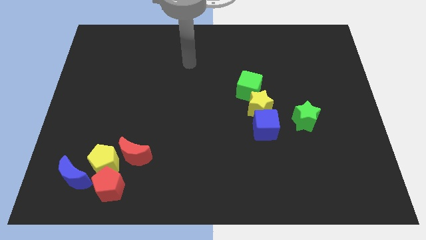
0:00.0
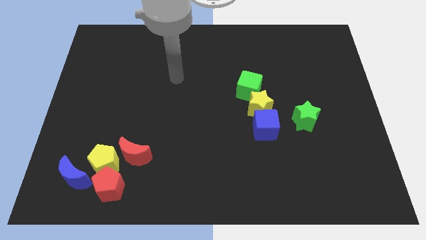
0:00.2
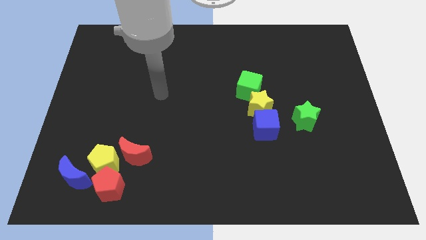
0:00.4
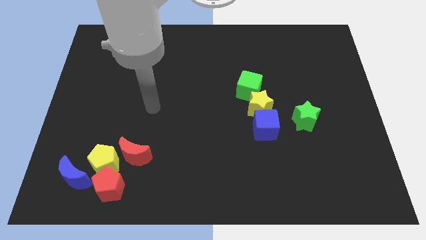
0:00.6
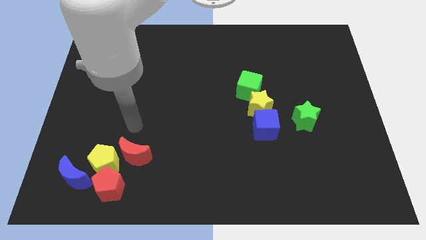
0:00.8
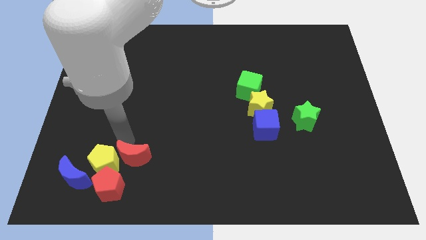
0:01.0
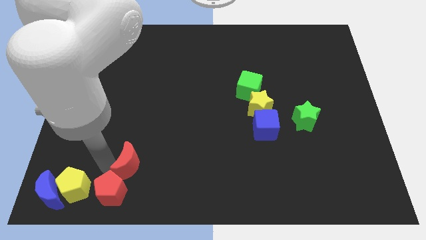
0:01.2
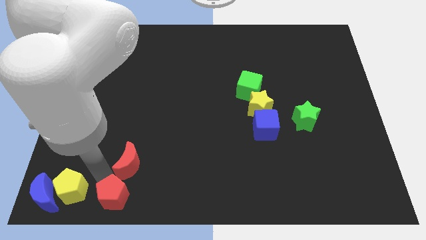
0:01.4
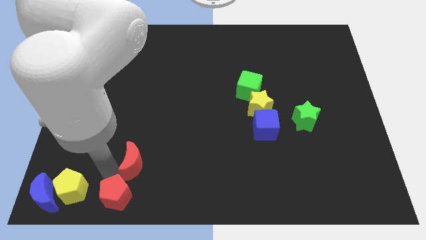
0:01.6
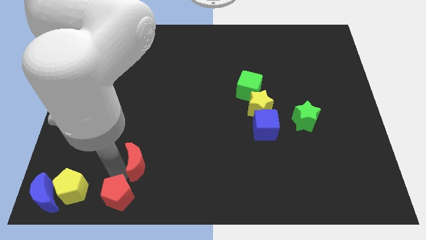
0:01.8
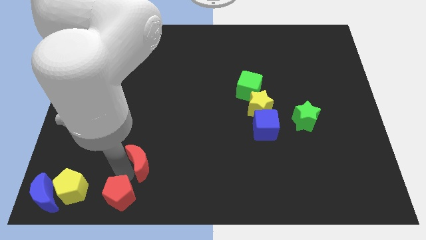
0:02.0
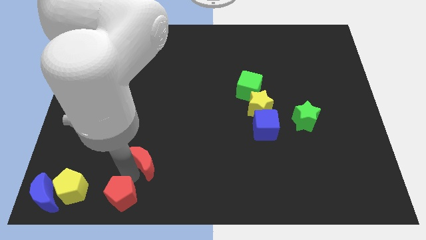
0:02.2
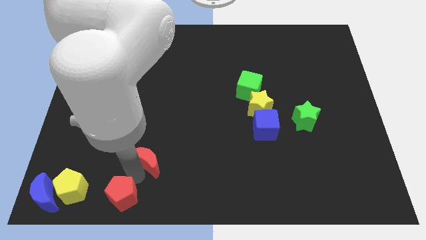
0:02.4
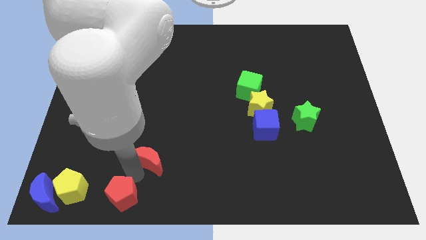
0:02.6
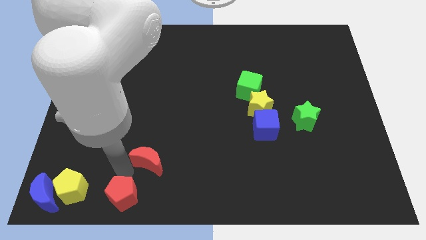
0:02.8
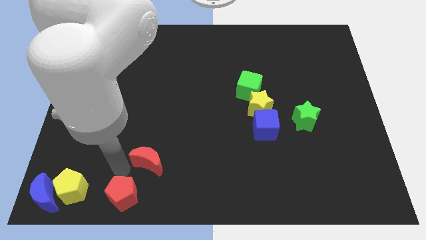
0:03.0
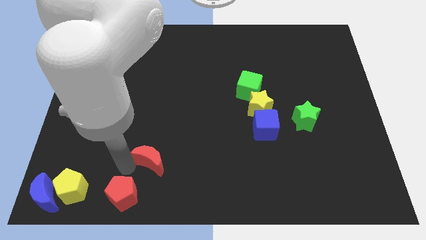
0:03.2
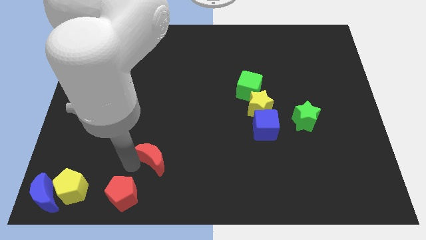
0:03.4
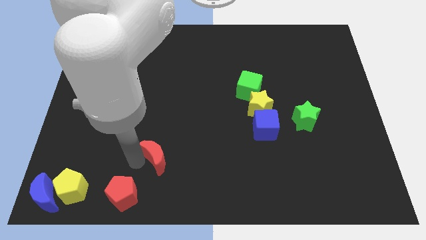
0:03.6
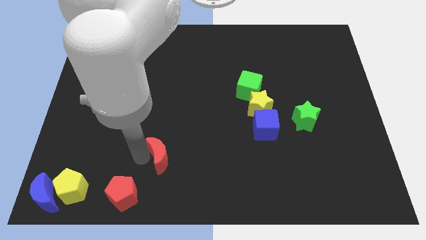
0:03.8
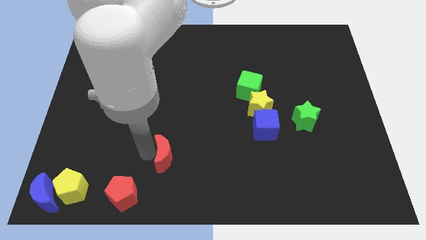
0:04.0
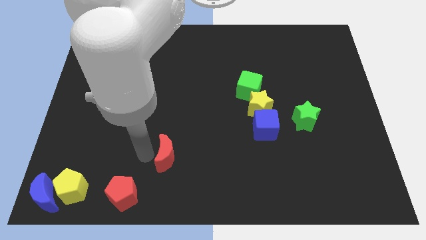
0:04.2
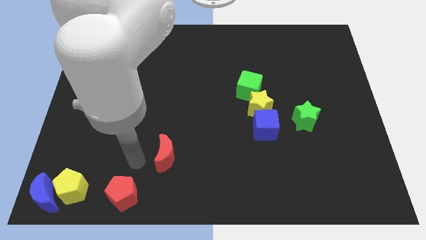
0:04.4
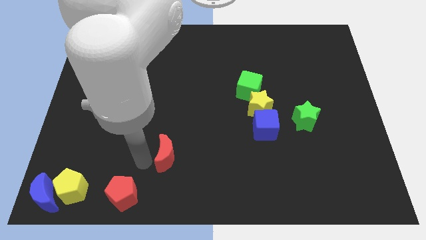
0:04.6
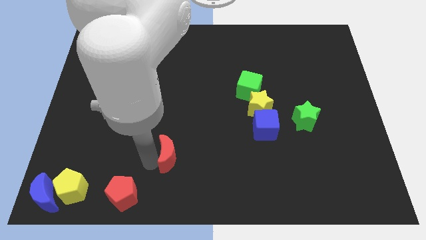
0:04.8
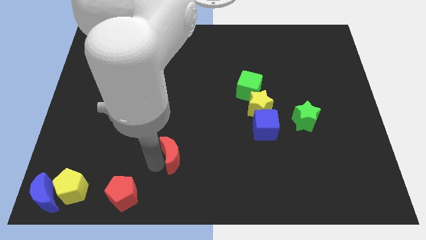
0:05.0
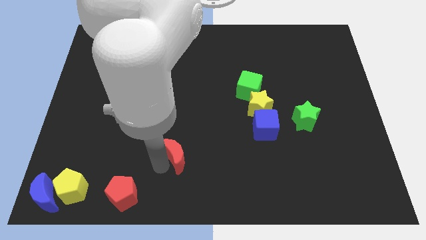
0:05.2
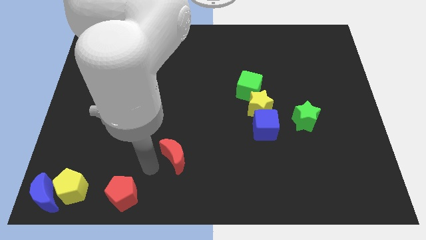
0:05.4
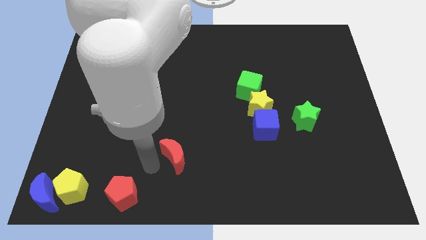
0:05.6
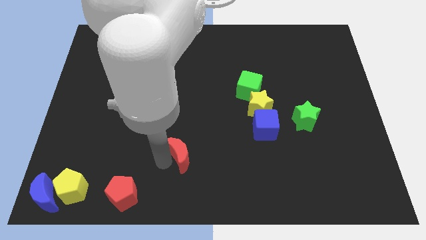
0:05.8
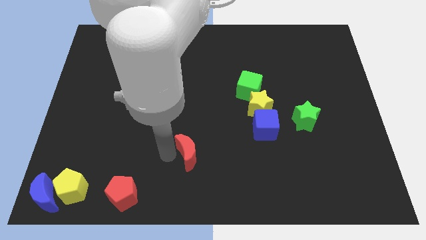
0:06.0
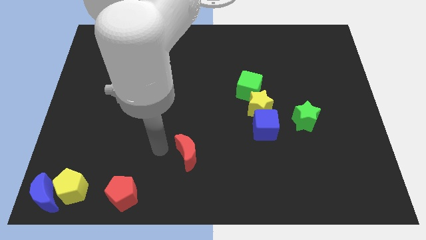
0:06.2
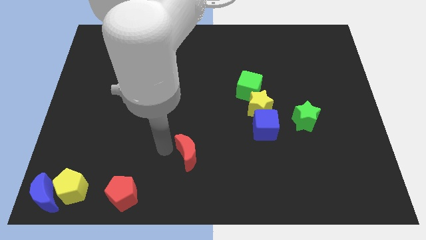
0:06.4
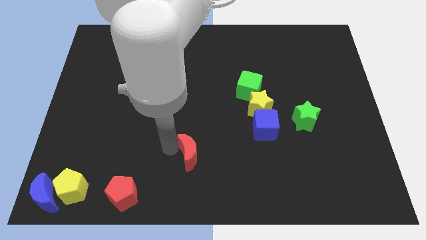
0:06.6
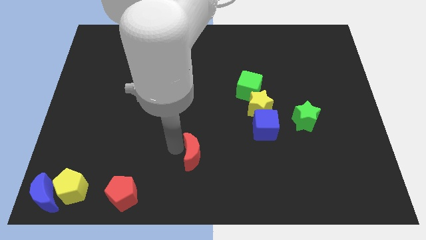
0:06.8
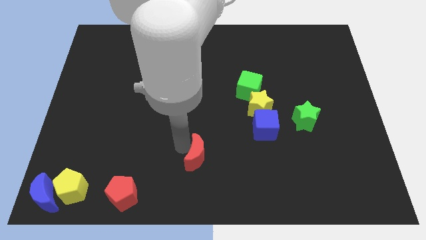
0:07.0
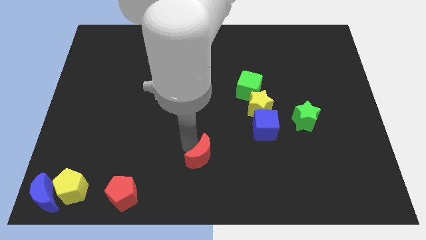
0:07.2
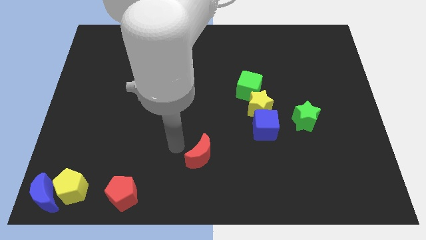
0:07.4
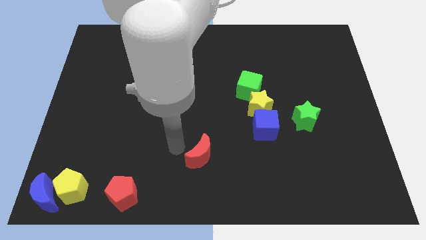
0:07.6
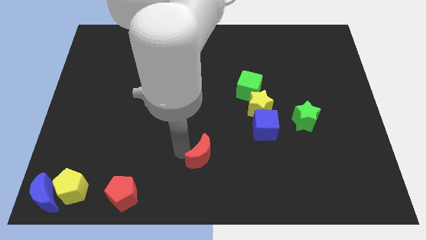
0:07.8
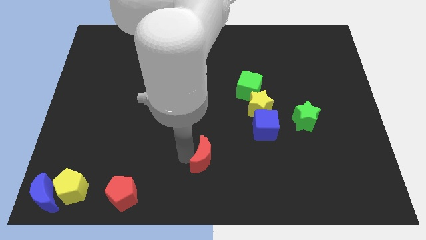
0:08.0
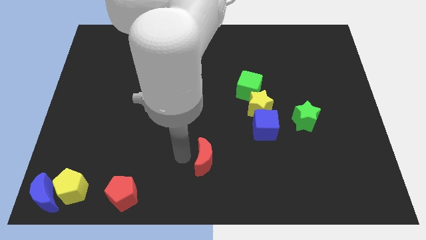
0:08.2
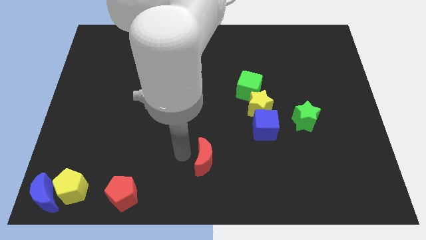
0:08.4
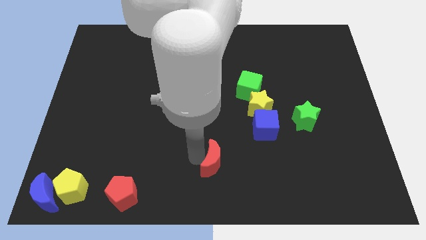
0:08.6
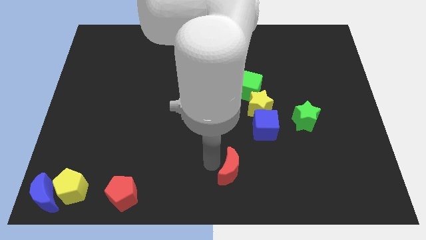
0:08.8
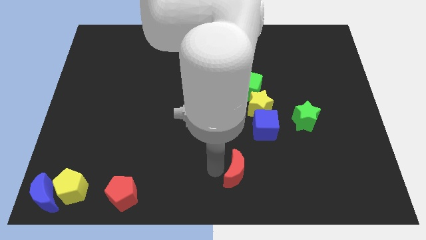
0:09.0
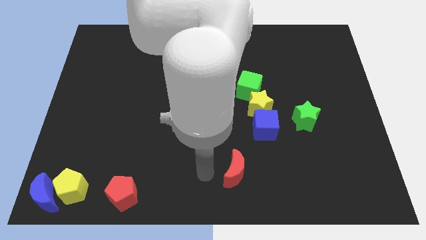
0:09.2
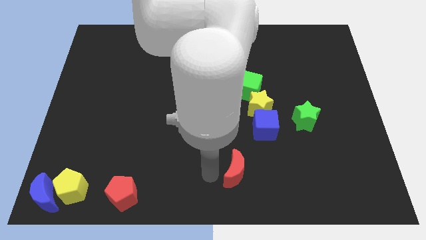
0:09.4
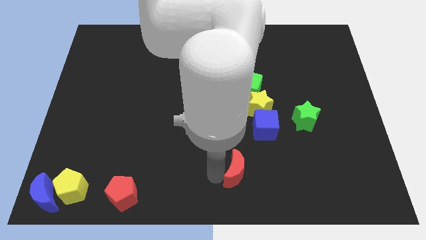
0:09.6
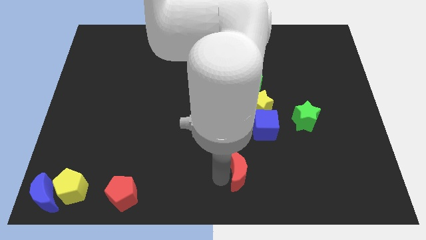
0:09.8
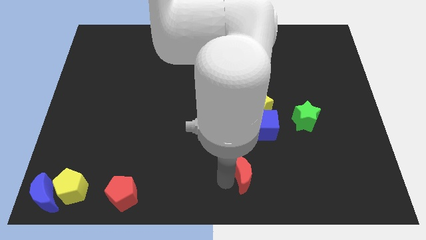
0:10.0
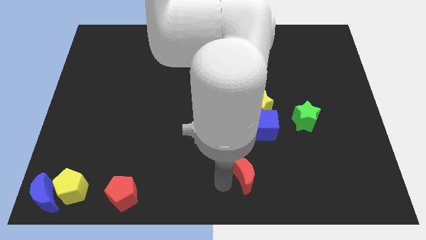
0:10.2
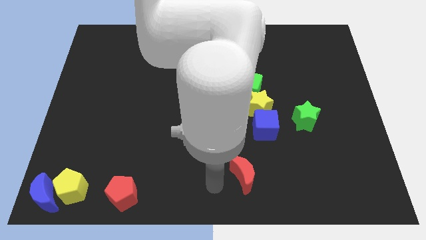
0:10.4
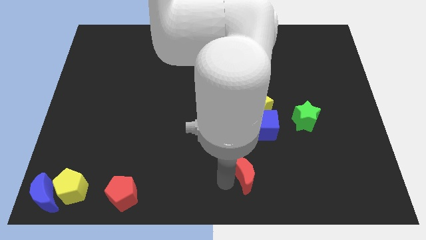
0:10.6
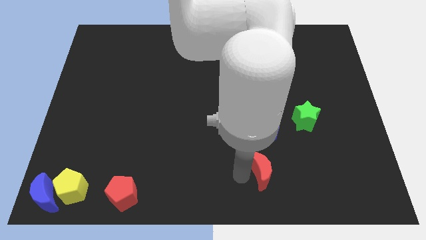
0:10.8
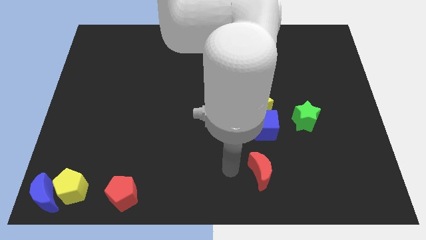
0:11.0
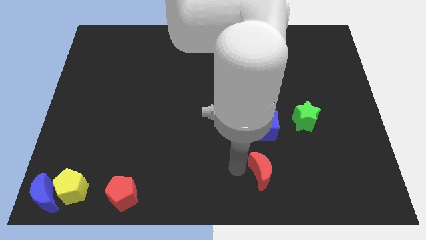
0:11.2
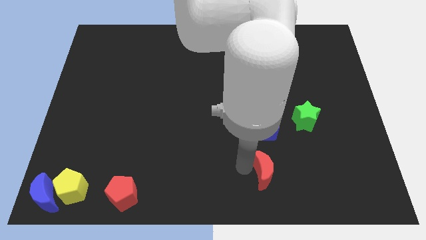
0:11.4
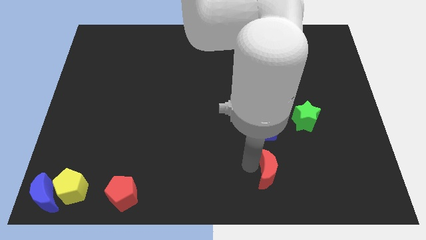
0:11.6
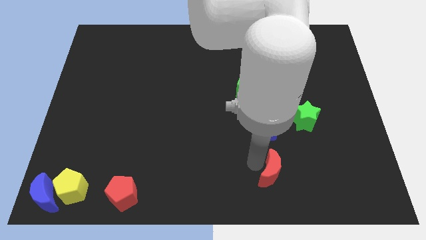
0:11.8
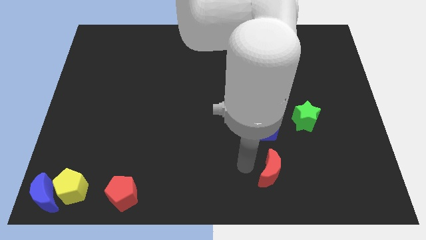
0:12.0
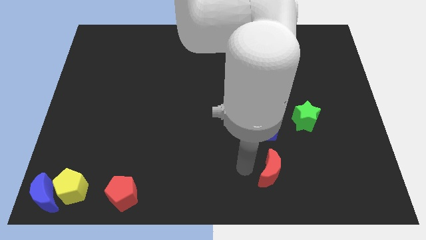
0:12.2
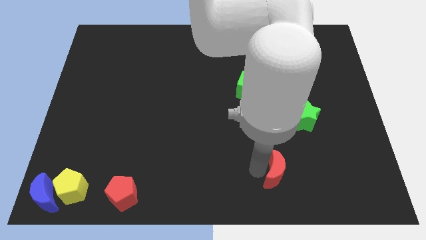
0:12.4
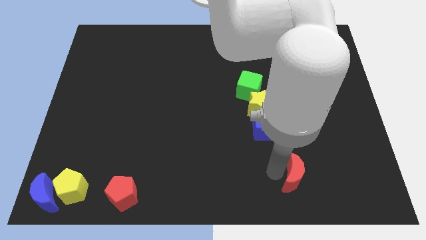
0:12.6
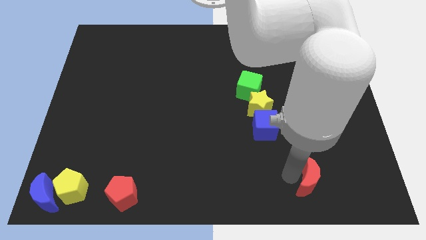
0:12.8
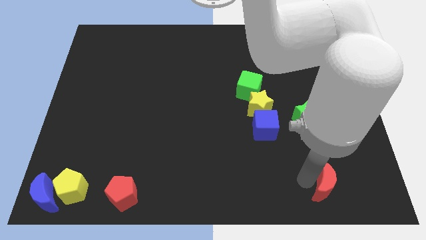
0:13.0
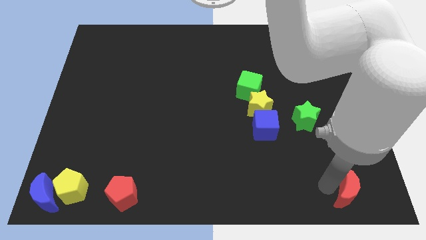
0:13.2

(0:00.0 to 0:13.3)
put the red moon to the bottom right
